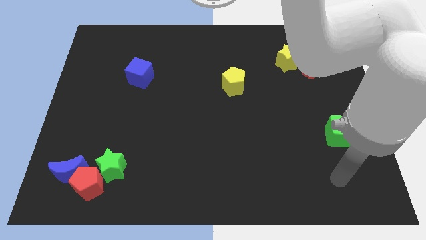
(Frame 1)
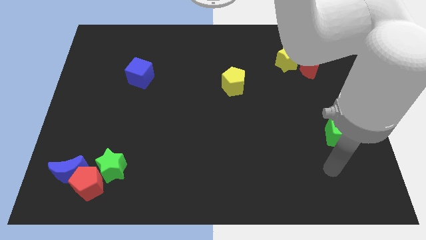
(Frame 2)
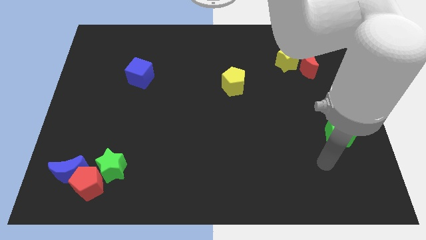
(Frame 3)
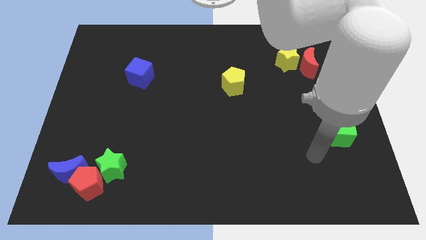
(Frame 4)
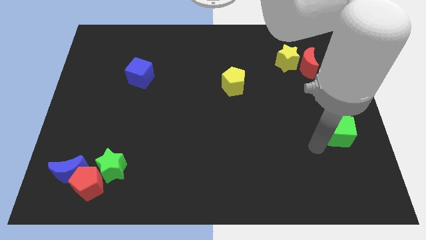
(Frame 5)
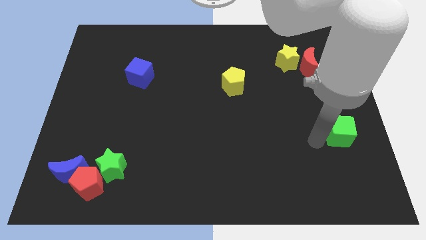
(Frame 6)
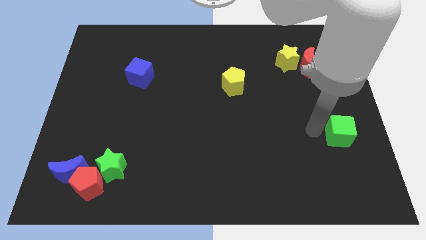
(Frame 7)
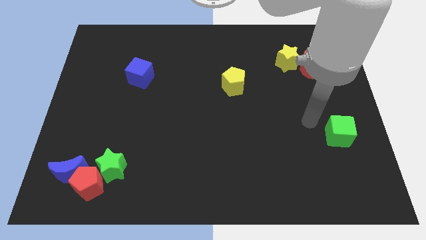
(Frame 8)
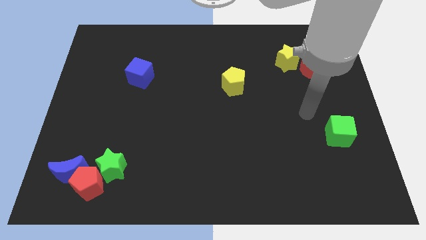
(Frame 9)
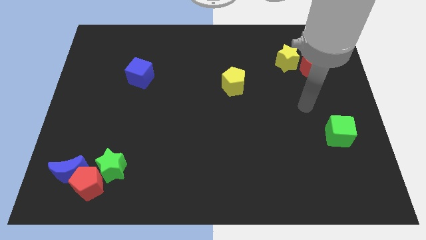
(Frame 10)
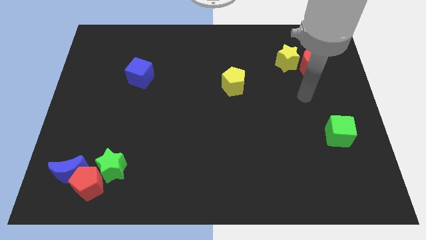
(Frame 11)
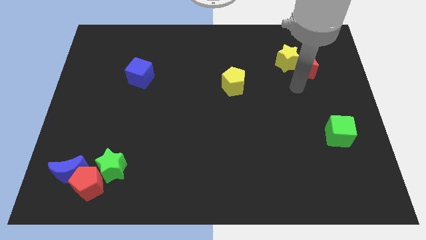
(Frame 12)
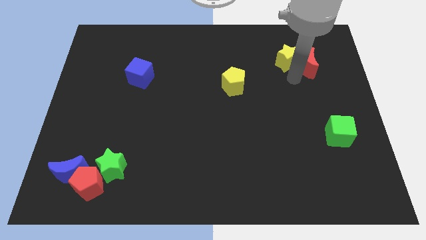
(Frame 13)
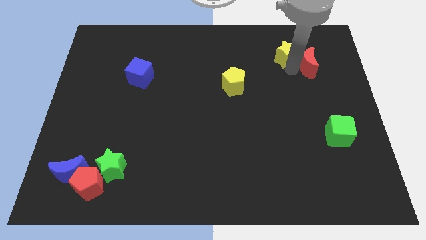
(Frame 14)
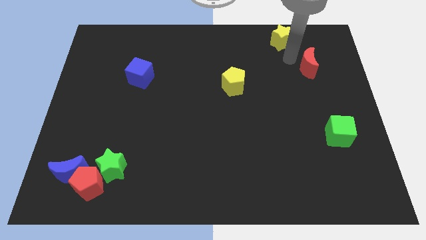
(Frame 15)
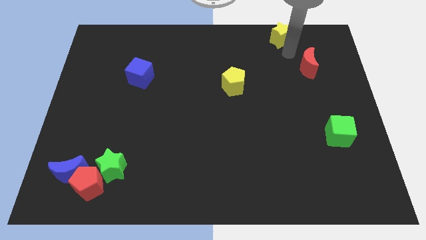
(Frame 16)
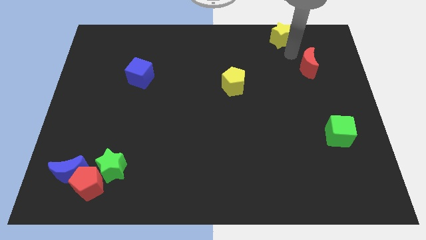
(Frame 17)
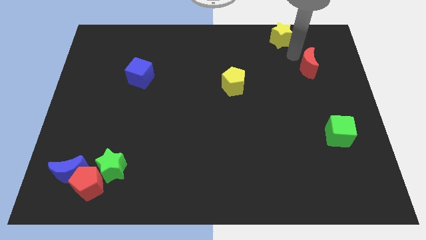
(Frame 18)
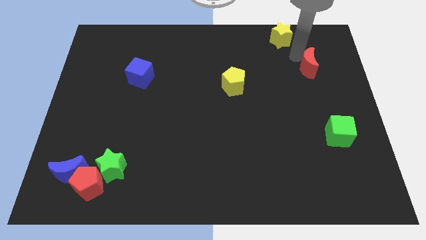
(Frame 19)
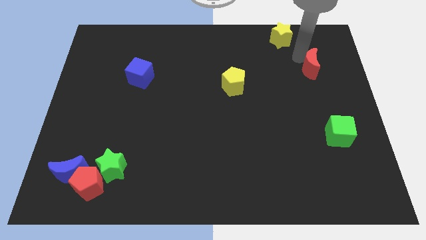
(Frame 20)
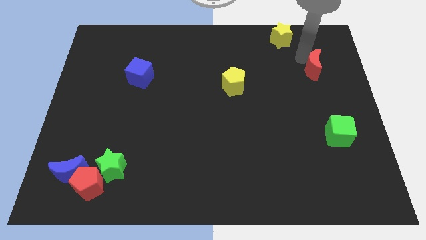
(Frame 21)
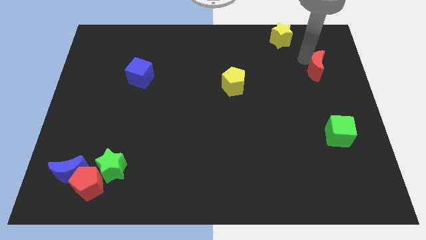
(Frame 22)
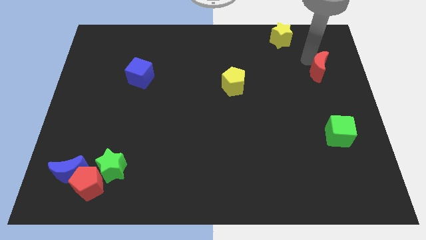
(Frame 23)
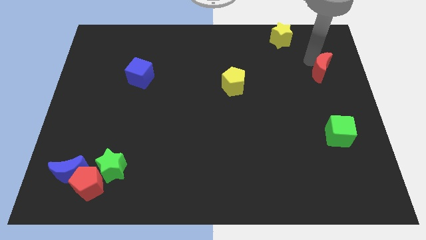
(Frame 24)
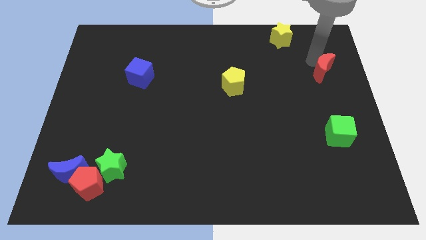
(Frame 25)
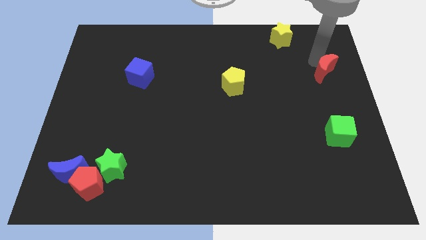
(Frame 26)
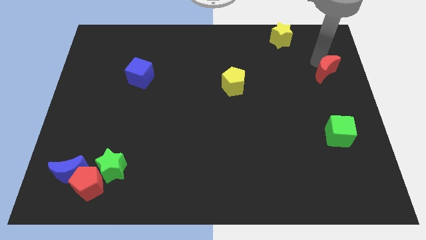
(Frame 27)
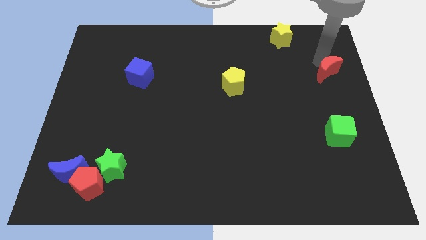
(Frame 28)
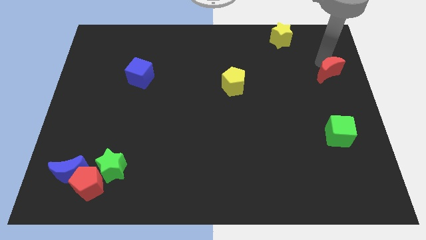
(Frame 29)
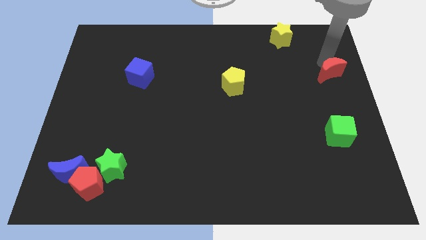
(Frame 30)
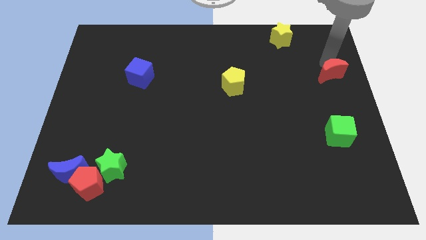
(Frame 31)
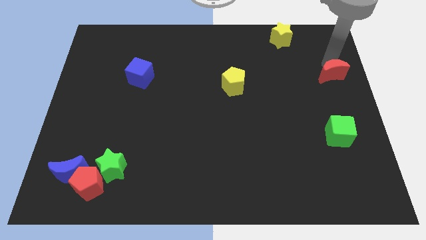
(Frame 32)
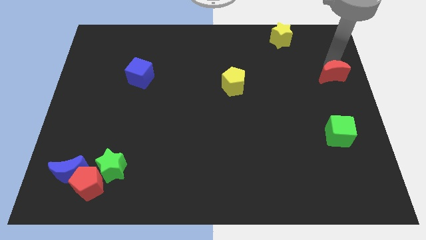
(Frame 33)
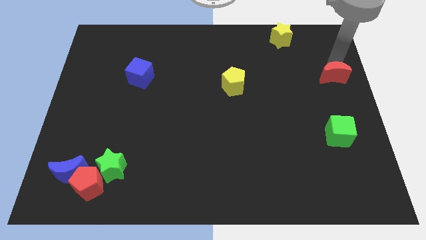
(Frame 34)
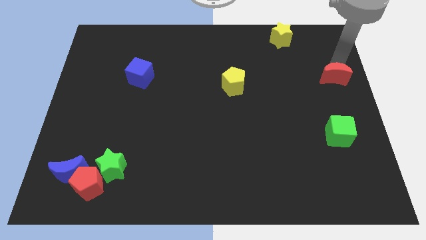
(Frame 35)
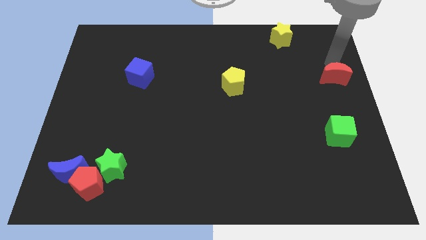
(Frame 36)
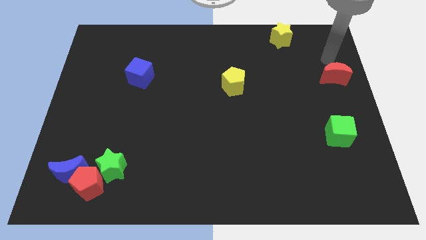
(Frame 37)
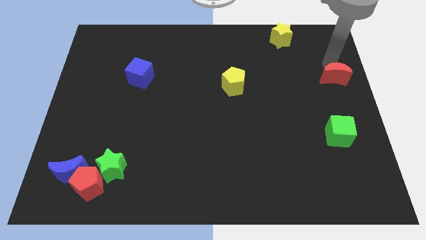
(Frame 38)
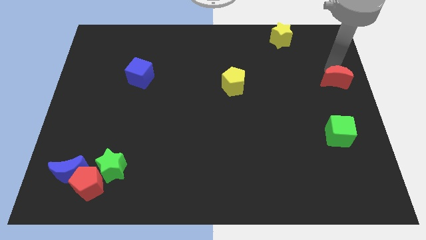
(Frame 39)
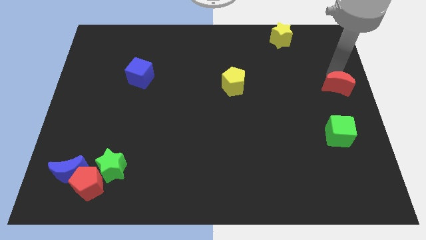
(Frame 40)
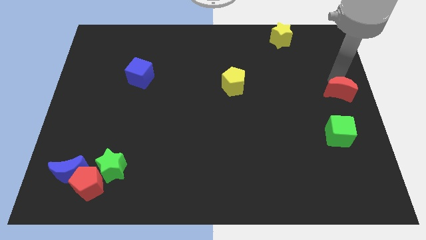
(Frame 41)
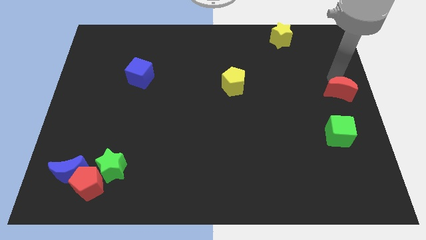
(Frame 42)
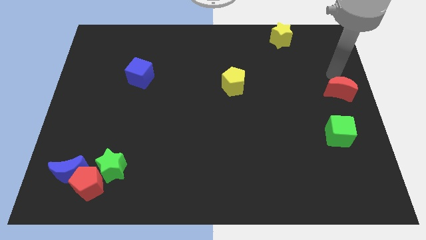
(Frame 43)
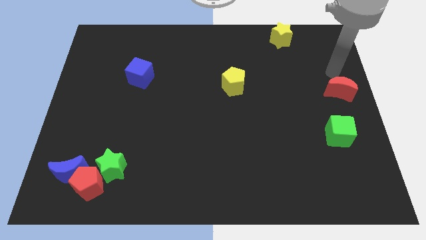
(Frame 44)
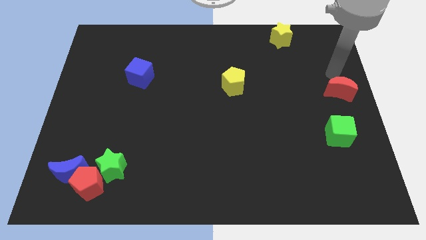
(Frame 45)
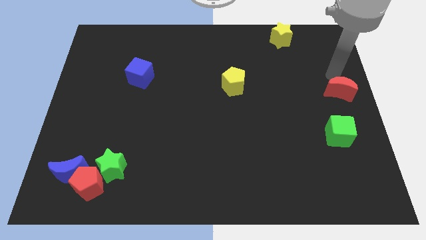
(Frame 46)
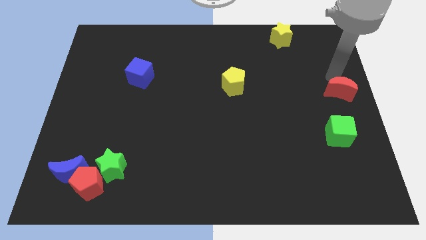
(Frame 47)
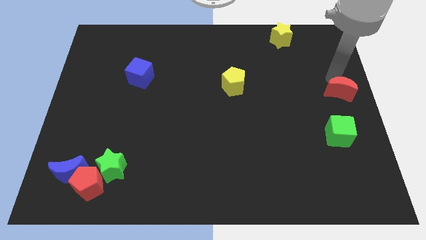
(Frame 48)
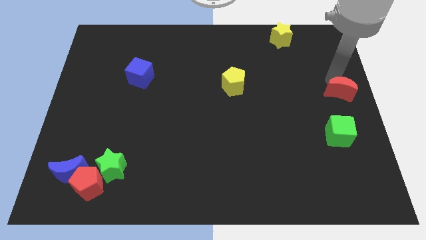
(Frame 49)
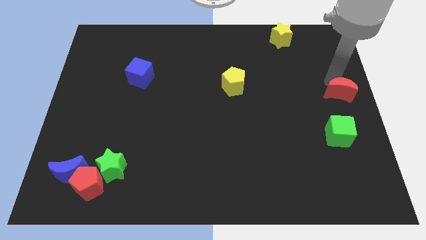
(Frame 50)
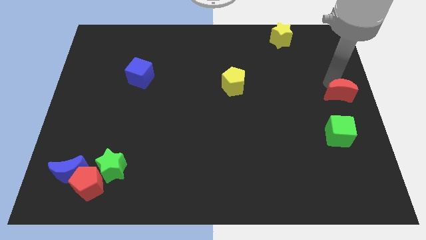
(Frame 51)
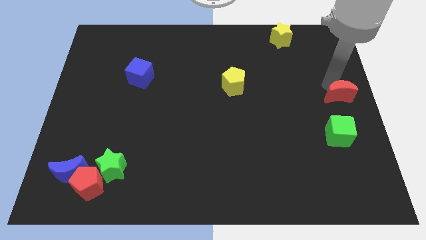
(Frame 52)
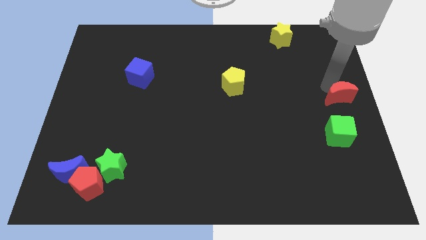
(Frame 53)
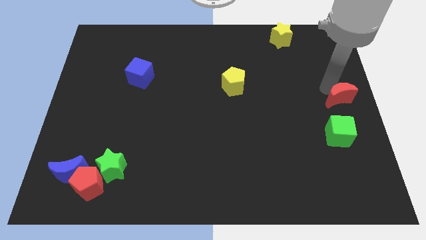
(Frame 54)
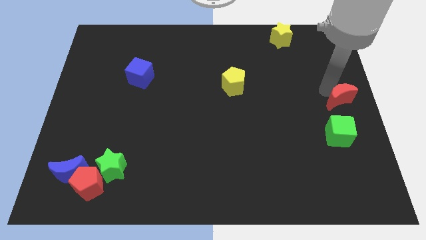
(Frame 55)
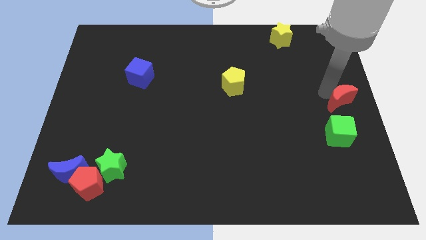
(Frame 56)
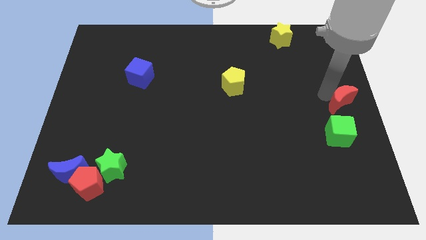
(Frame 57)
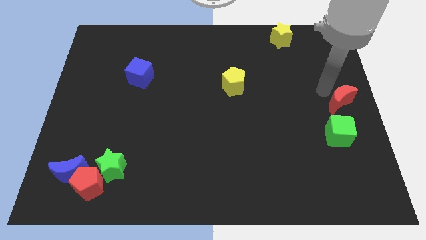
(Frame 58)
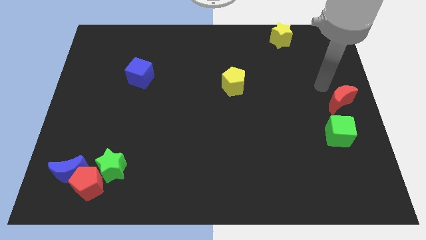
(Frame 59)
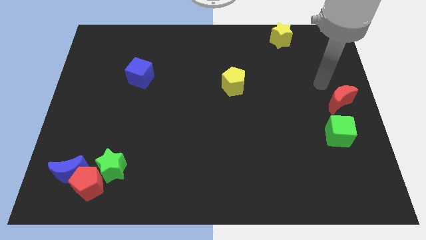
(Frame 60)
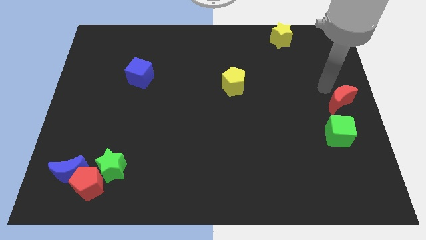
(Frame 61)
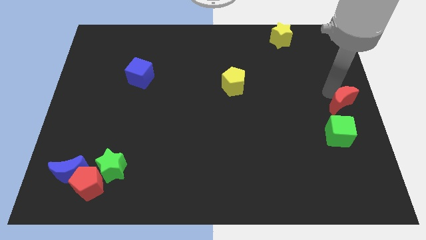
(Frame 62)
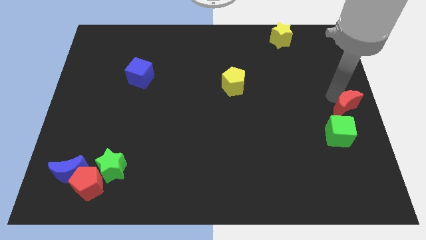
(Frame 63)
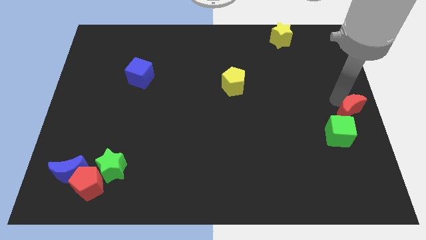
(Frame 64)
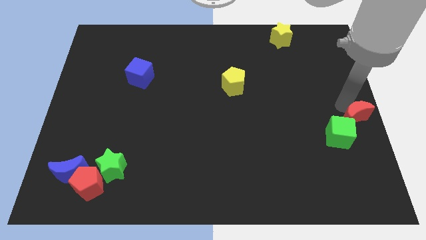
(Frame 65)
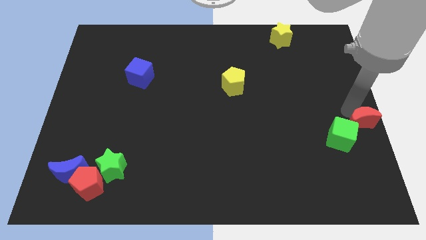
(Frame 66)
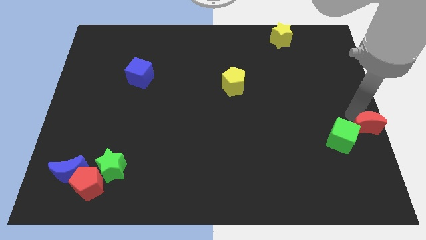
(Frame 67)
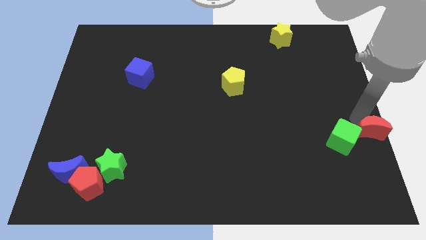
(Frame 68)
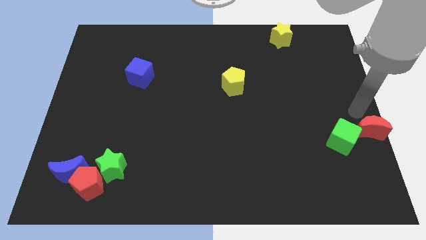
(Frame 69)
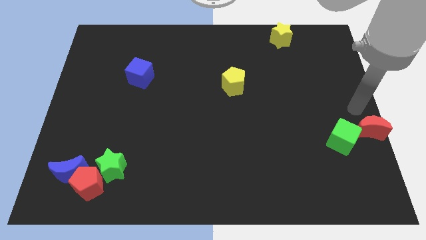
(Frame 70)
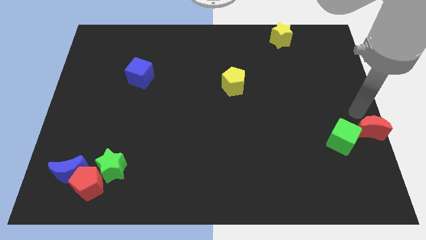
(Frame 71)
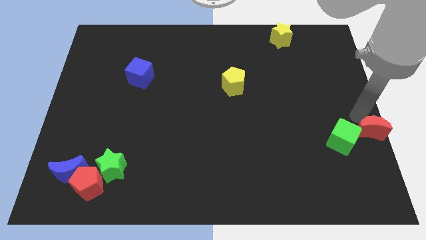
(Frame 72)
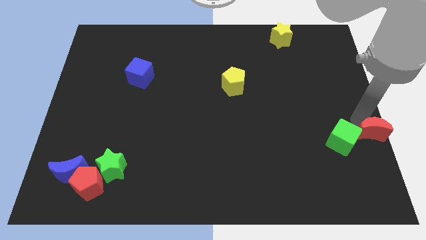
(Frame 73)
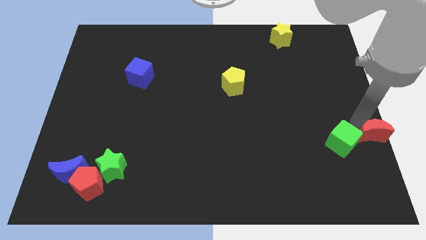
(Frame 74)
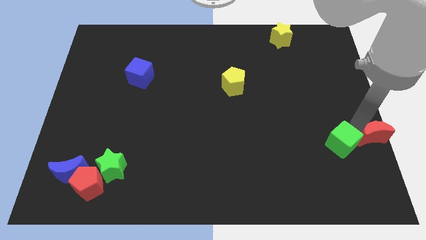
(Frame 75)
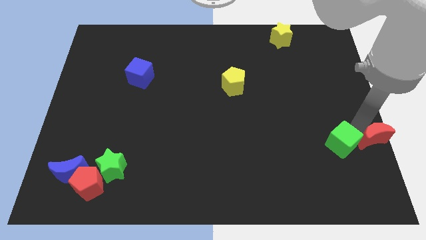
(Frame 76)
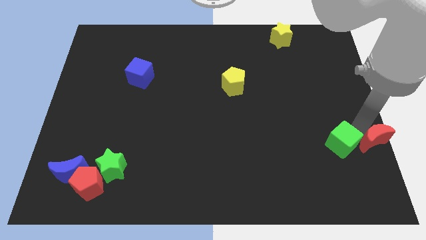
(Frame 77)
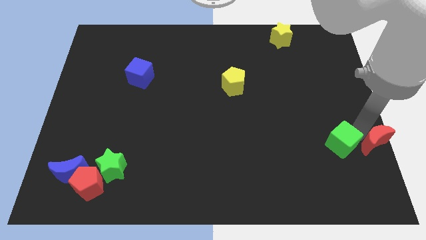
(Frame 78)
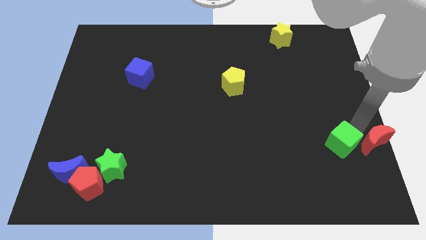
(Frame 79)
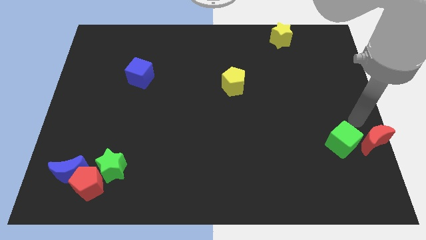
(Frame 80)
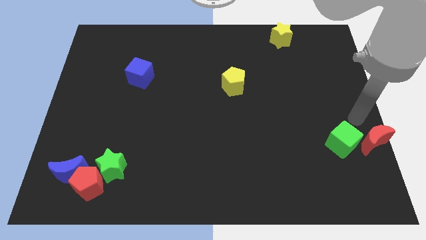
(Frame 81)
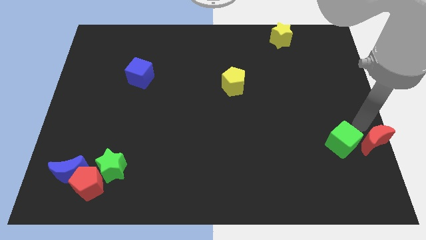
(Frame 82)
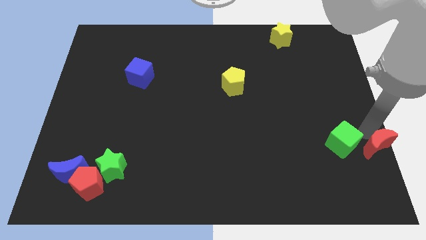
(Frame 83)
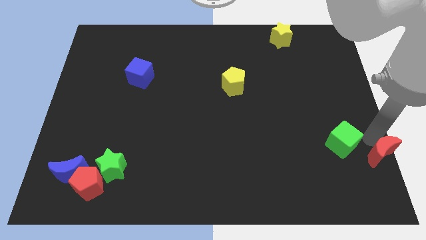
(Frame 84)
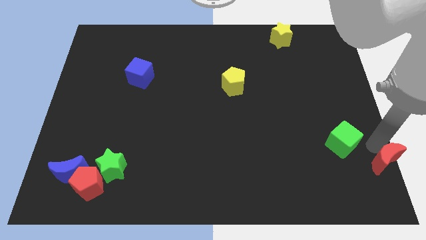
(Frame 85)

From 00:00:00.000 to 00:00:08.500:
move the red moon to the lower right corner
